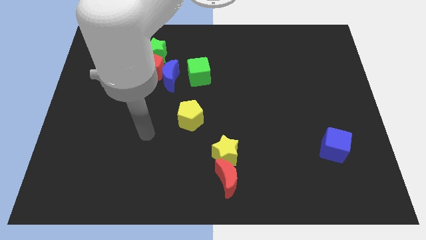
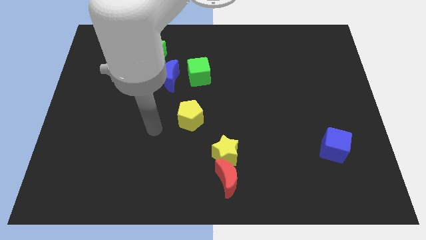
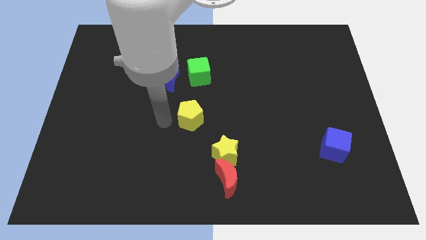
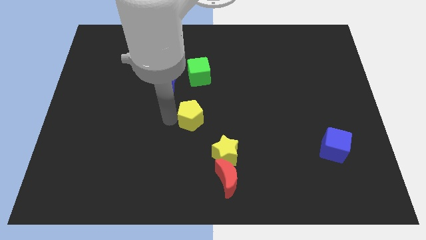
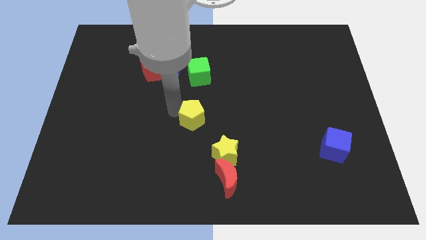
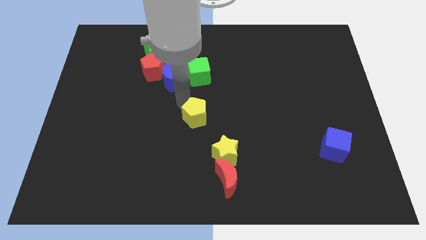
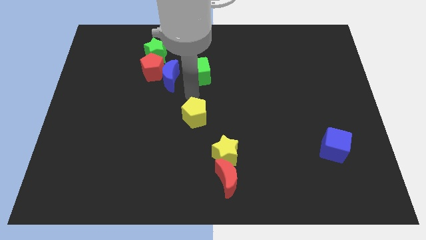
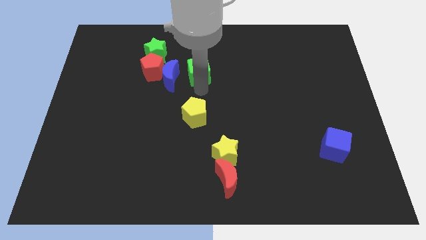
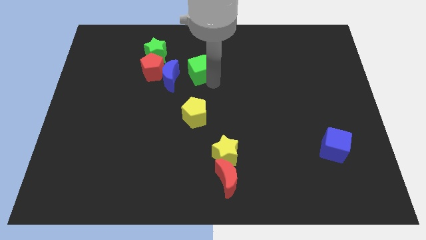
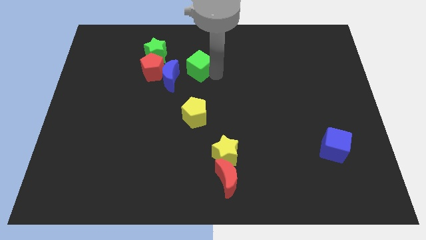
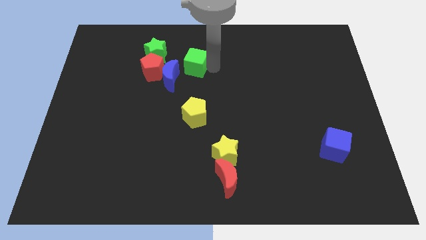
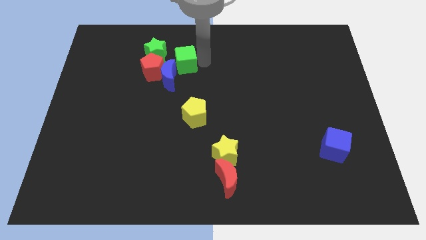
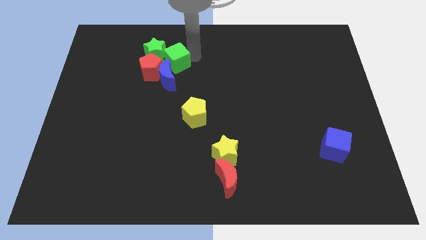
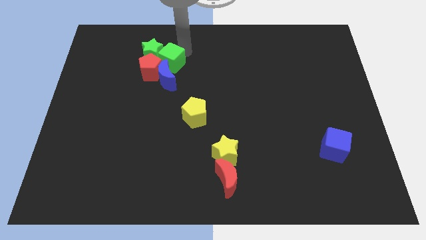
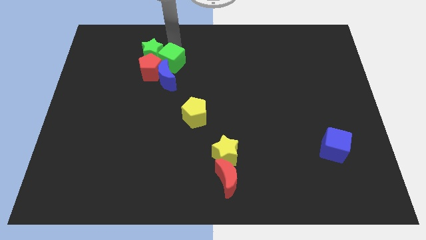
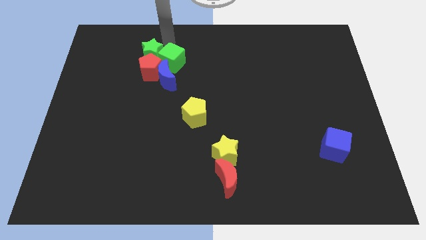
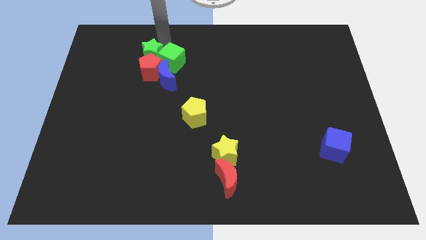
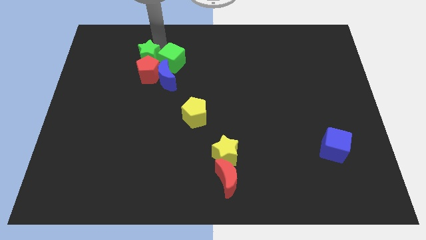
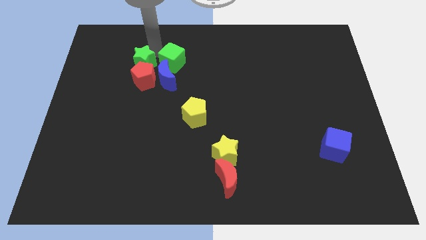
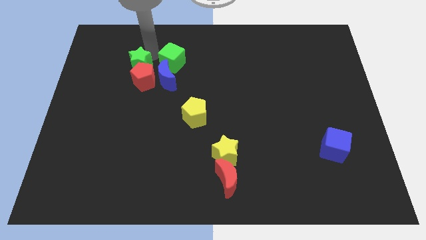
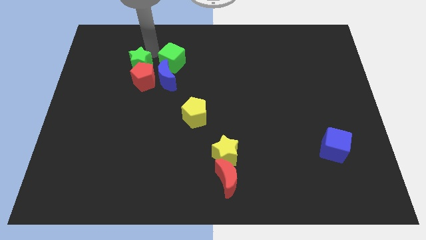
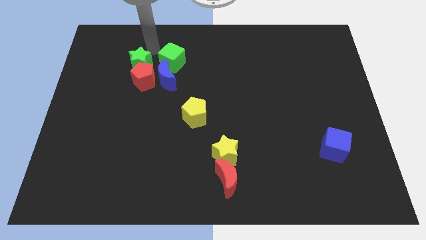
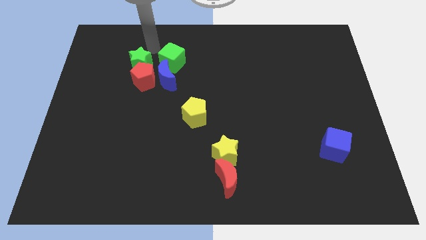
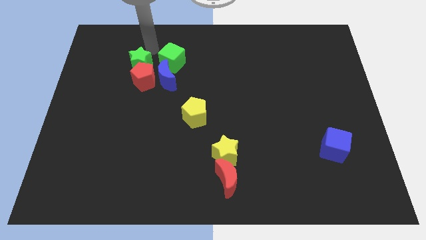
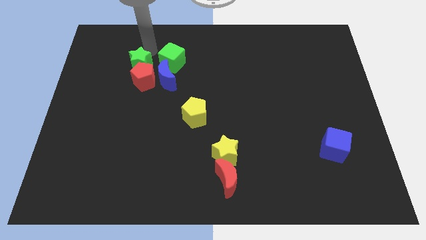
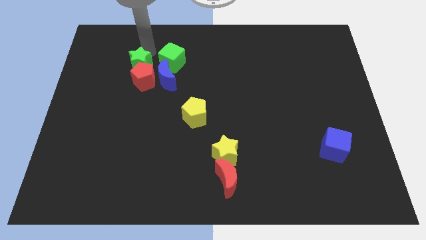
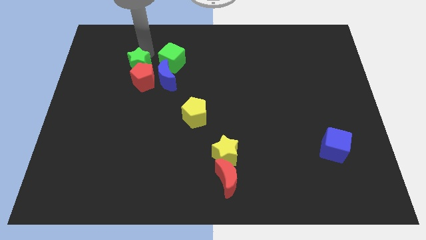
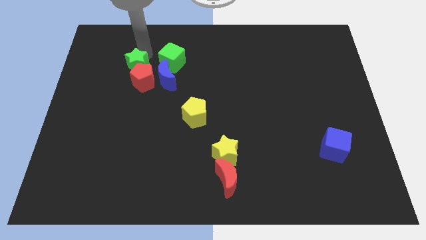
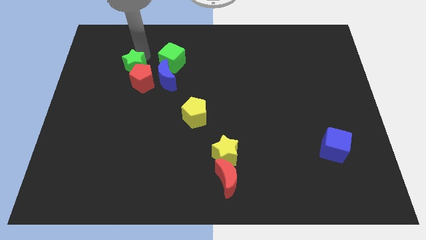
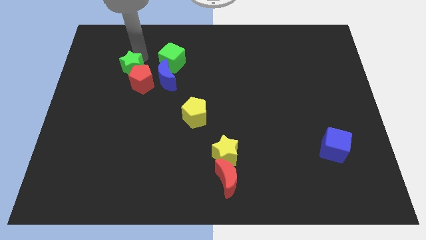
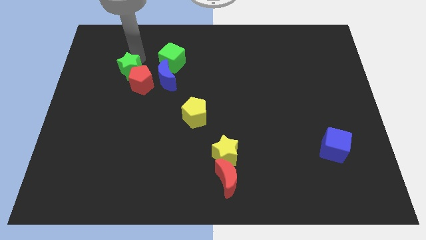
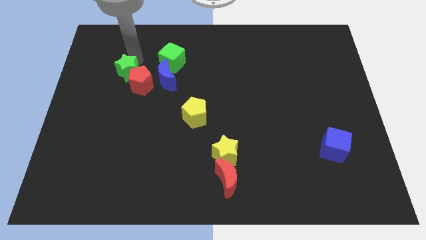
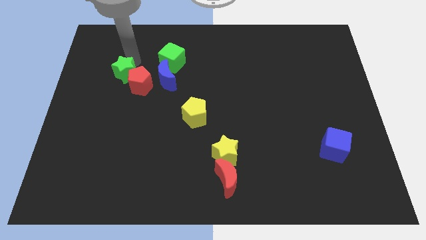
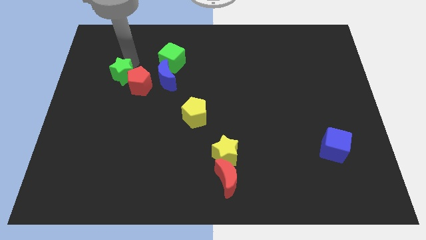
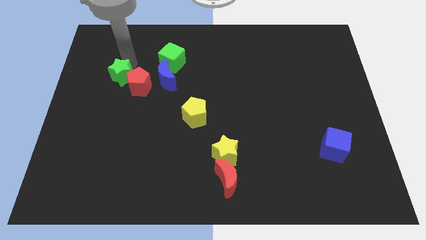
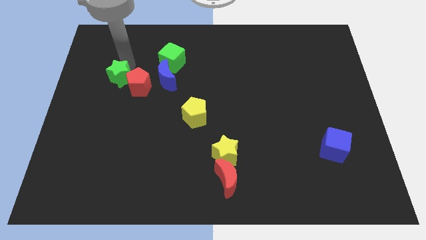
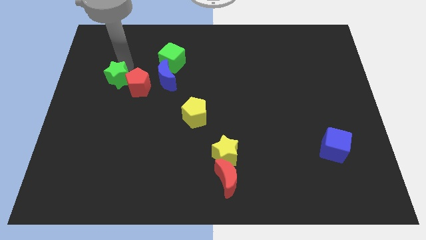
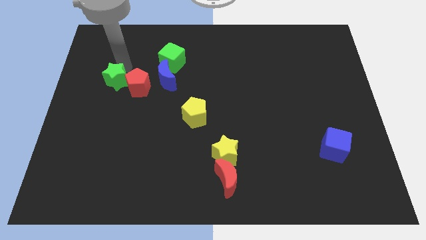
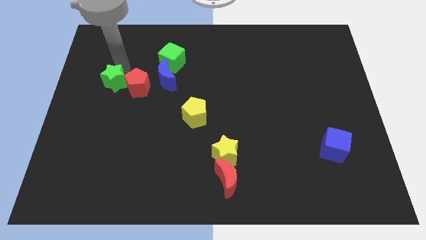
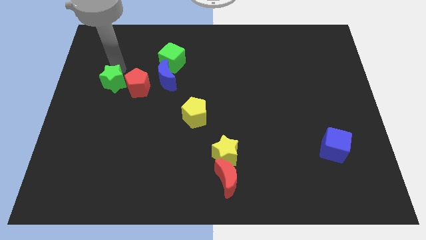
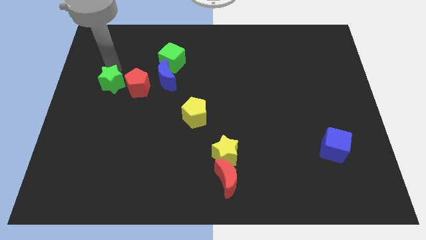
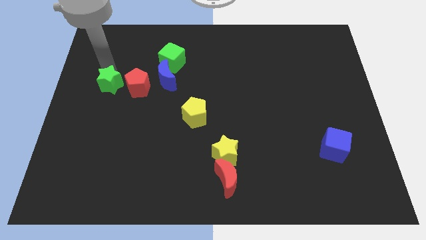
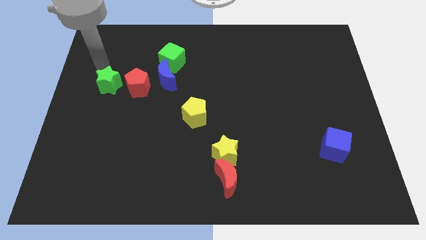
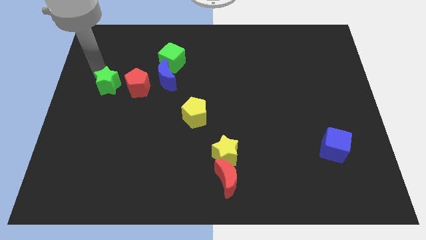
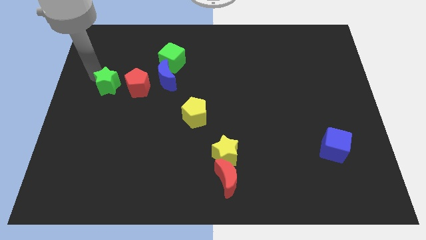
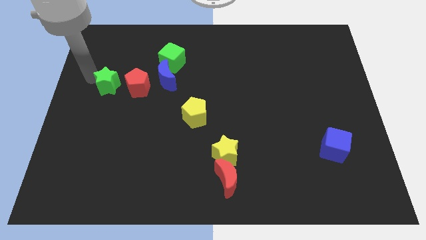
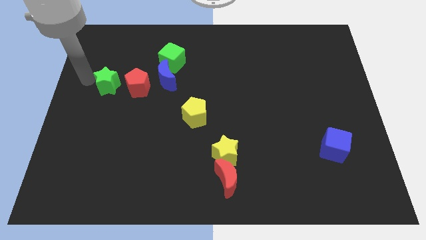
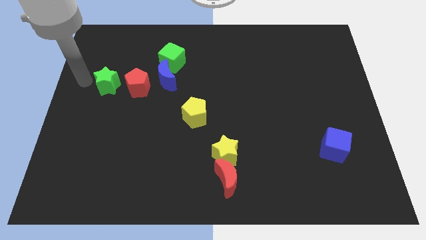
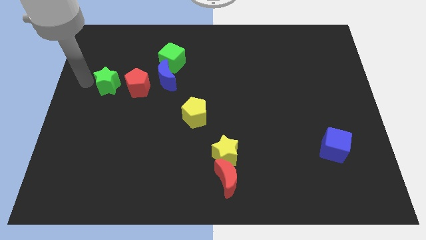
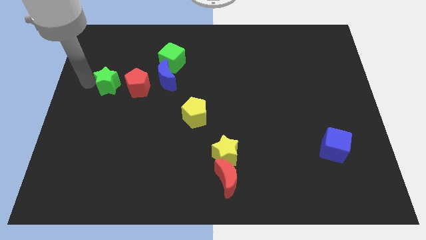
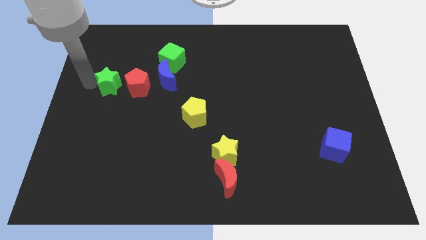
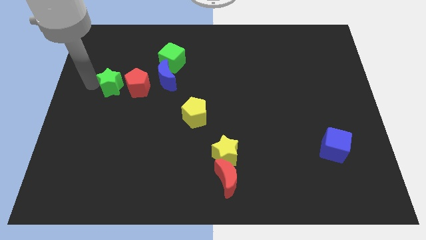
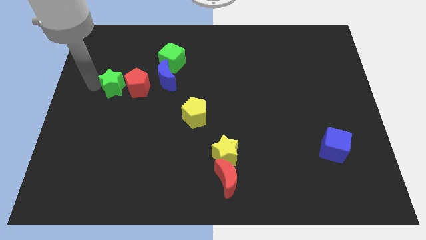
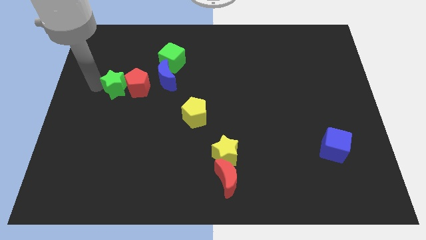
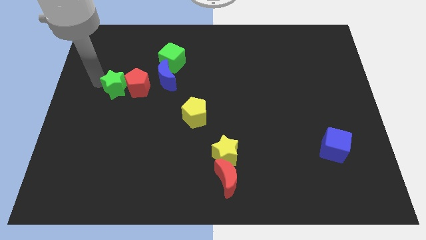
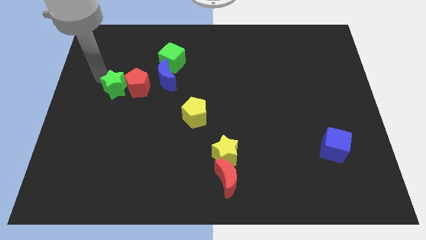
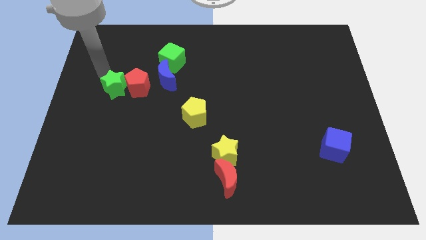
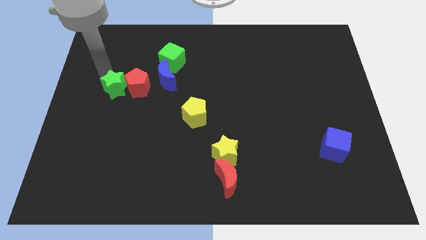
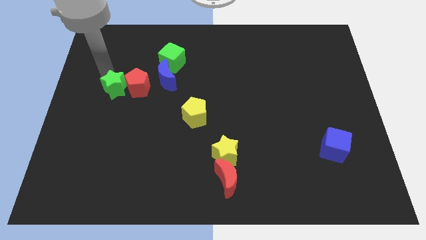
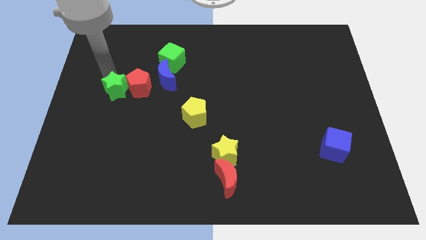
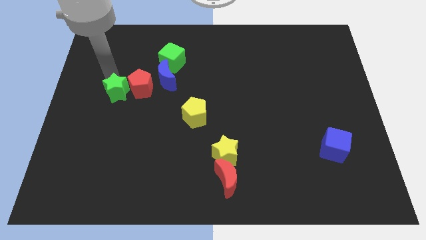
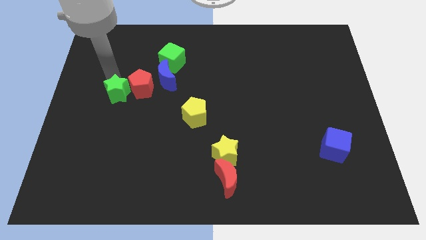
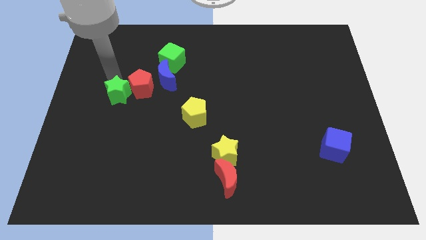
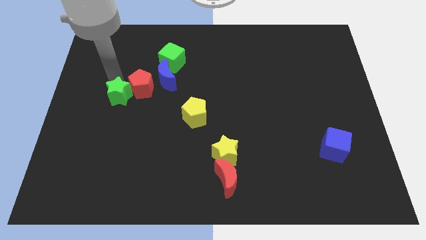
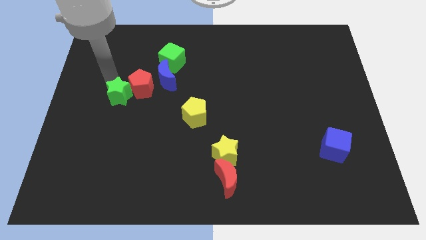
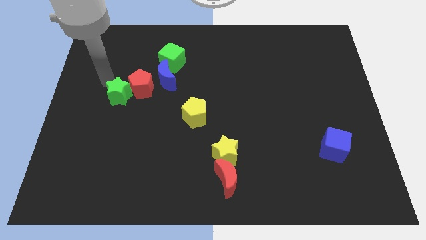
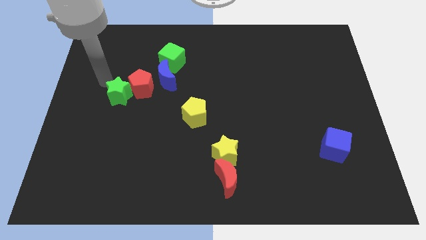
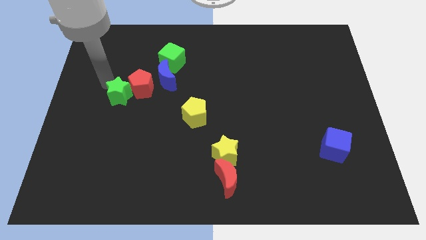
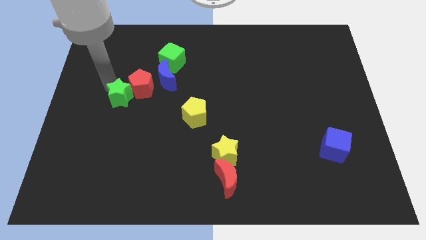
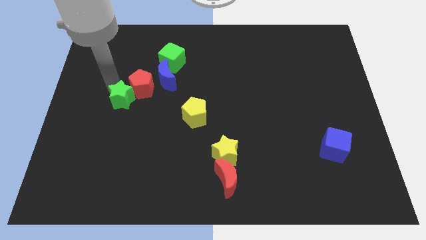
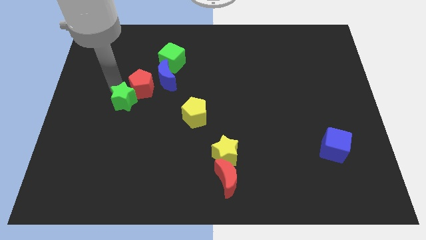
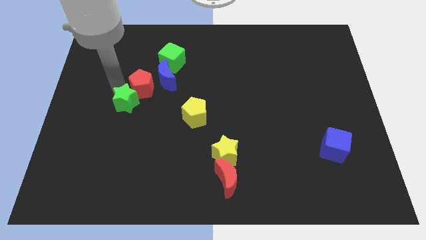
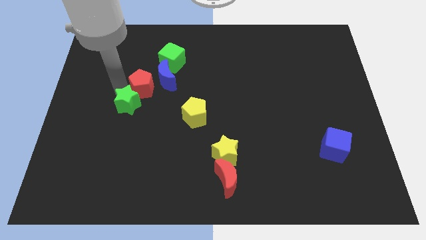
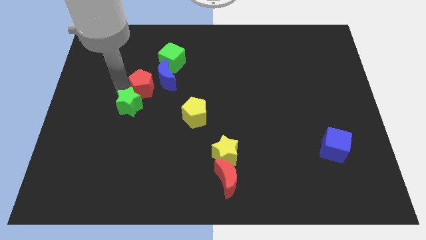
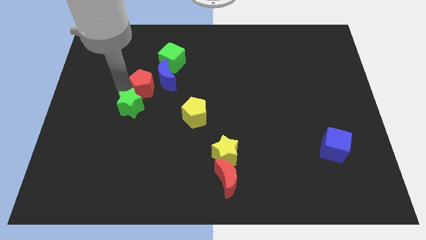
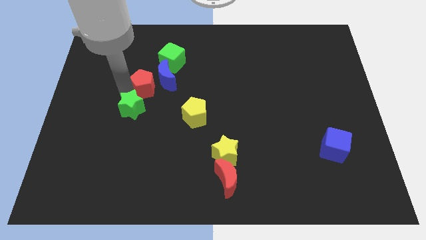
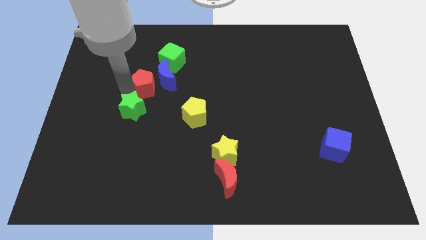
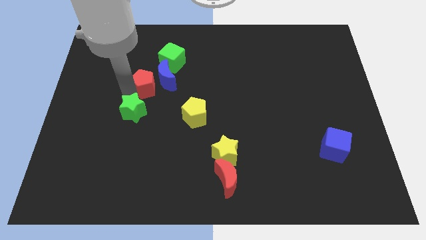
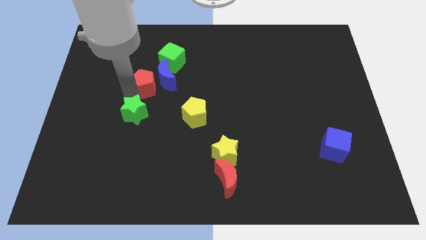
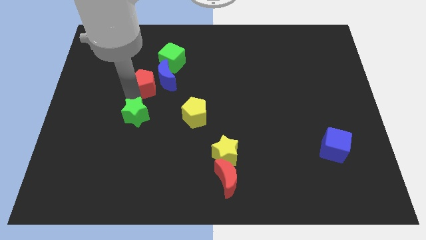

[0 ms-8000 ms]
push the green star down
